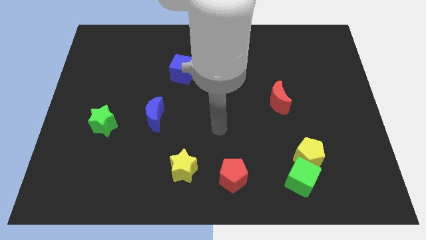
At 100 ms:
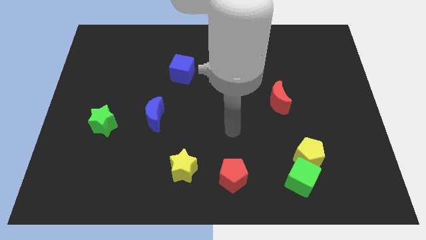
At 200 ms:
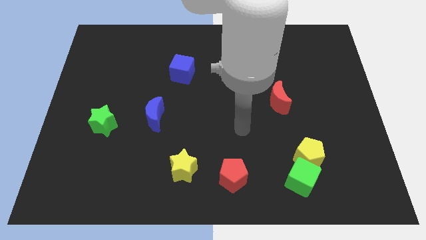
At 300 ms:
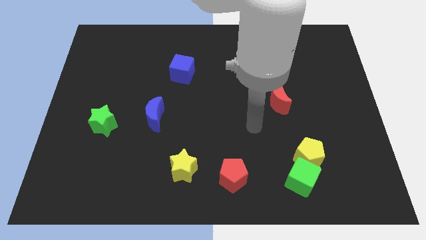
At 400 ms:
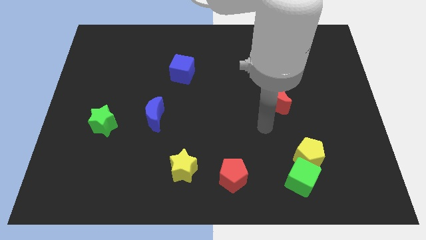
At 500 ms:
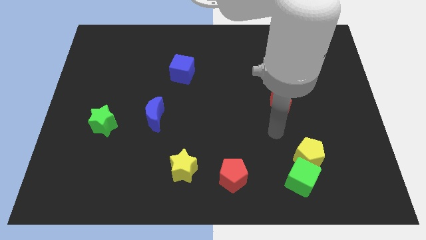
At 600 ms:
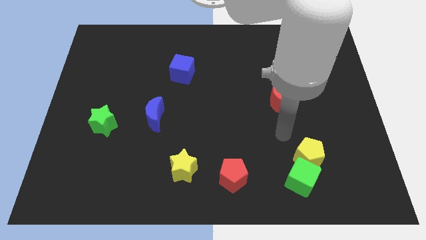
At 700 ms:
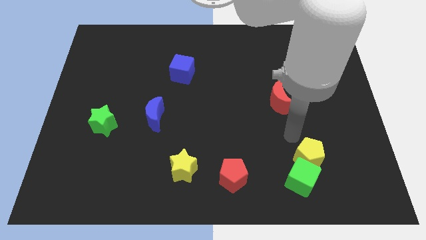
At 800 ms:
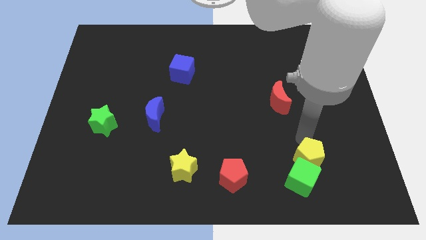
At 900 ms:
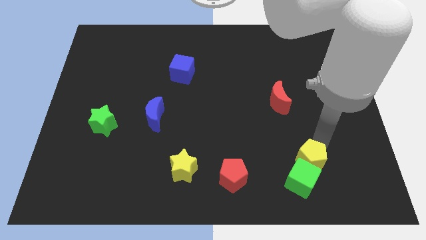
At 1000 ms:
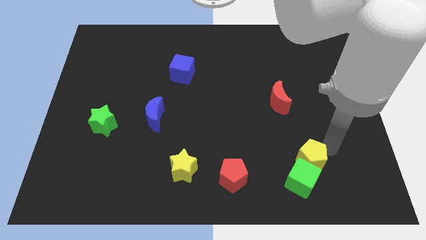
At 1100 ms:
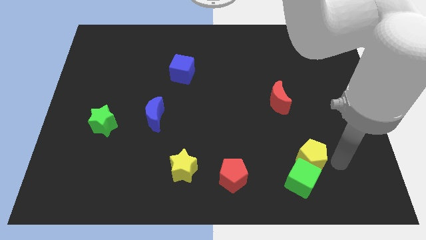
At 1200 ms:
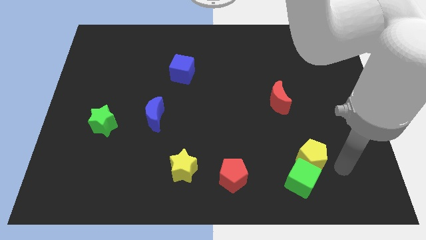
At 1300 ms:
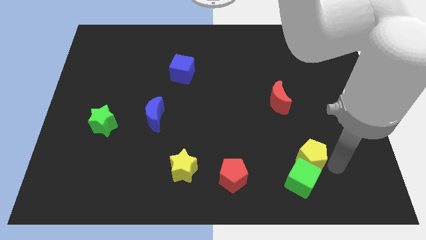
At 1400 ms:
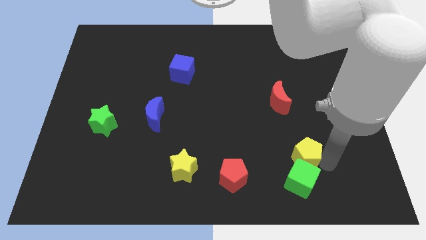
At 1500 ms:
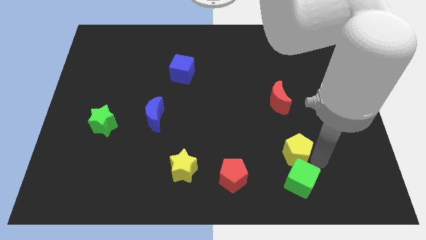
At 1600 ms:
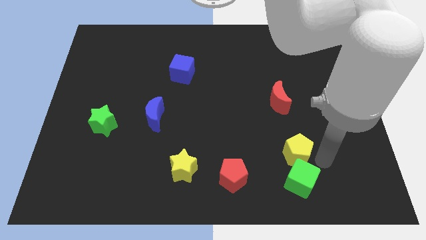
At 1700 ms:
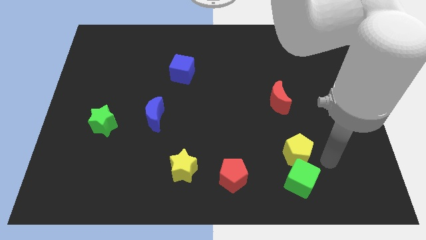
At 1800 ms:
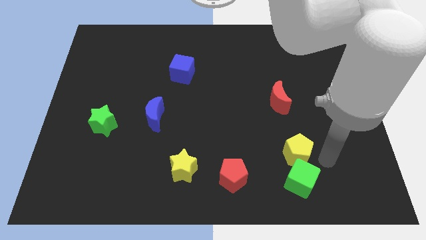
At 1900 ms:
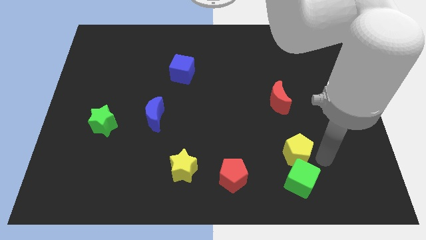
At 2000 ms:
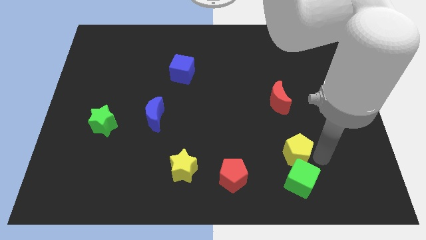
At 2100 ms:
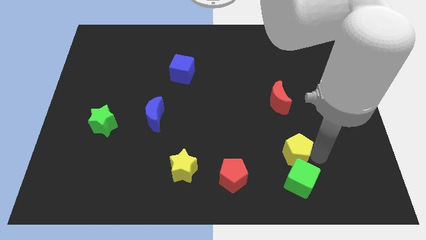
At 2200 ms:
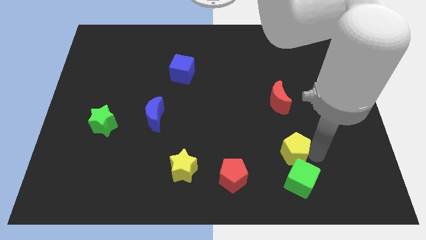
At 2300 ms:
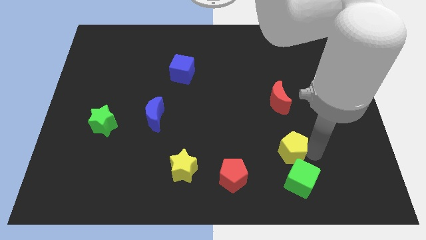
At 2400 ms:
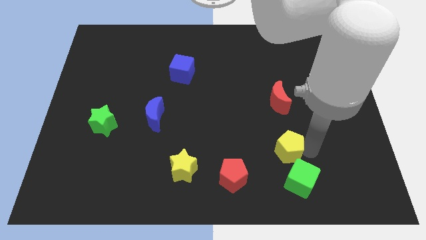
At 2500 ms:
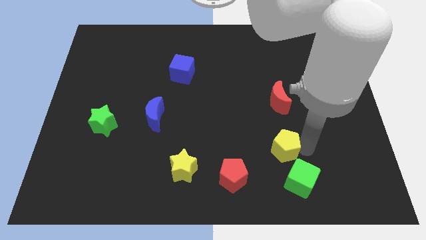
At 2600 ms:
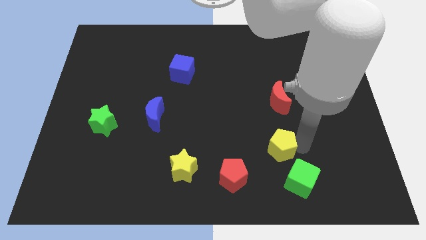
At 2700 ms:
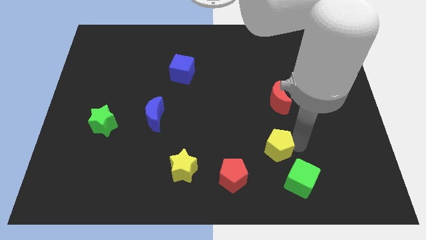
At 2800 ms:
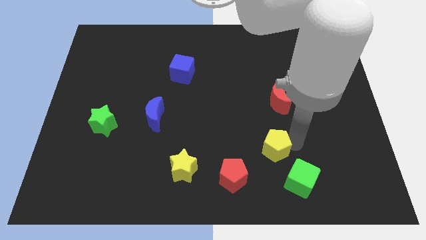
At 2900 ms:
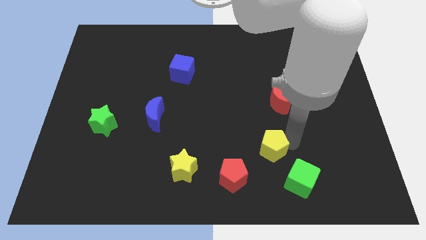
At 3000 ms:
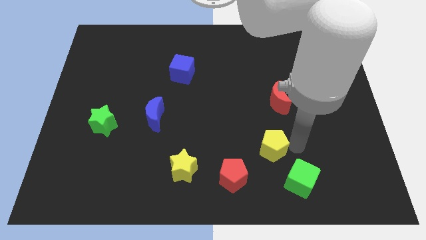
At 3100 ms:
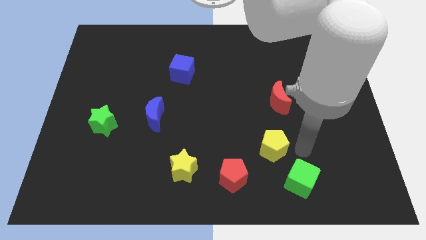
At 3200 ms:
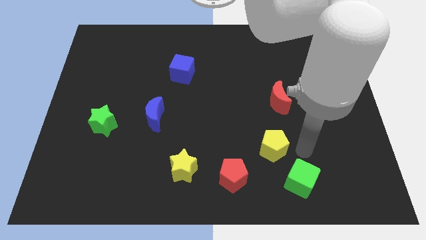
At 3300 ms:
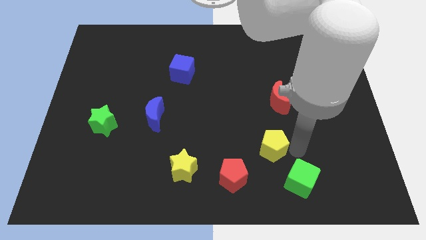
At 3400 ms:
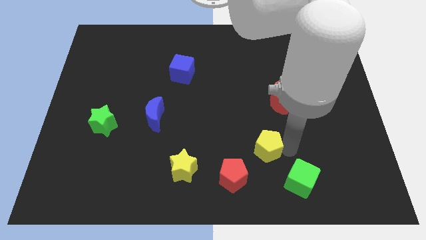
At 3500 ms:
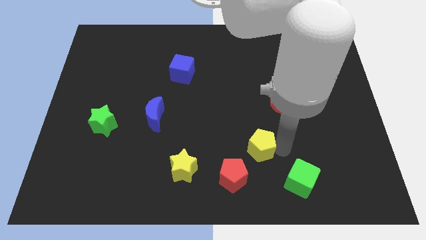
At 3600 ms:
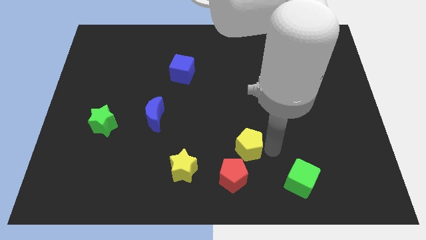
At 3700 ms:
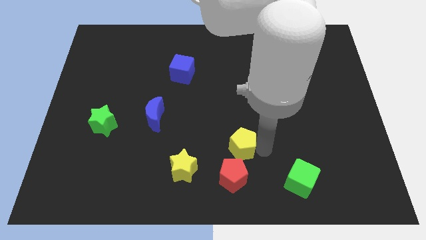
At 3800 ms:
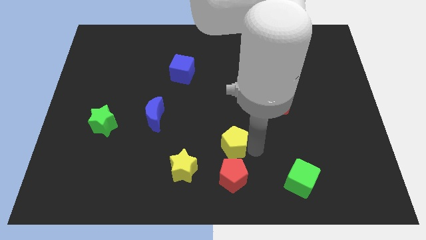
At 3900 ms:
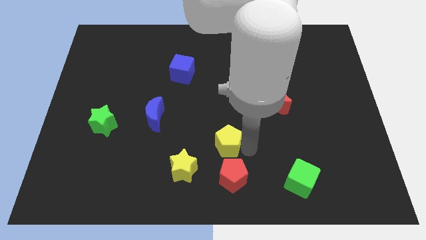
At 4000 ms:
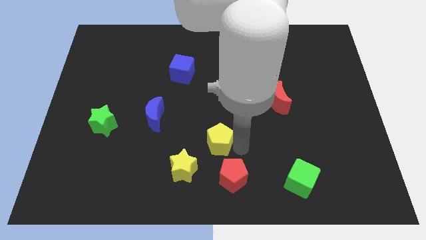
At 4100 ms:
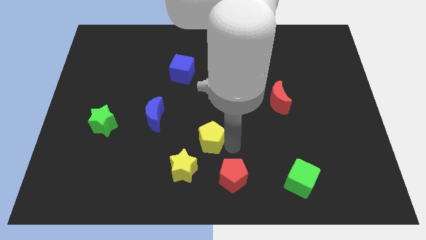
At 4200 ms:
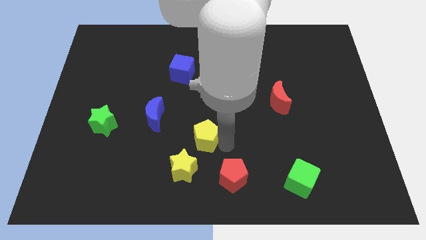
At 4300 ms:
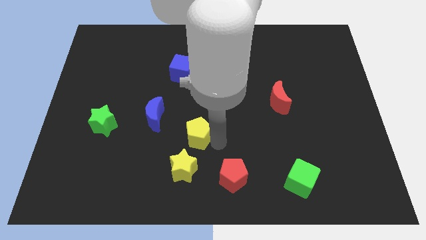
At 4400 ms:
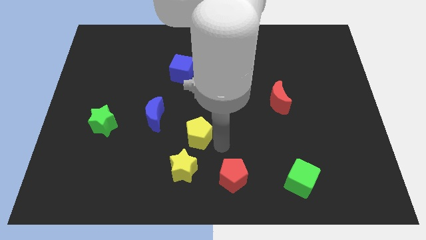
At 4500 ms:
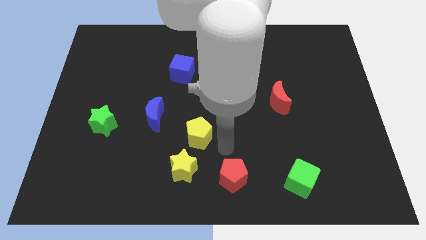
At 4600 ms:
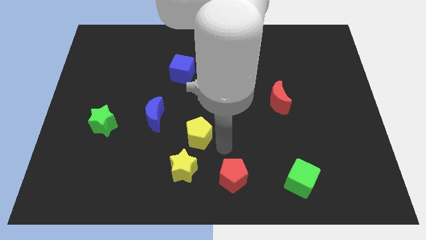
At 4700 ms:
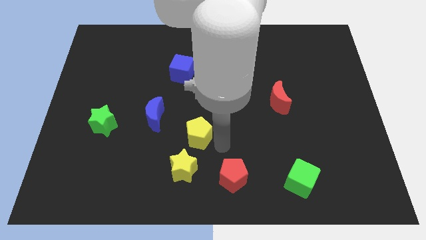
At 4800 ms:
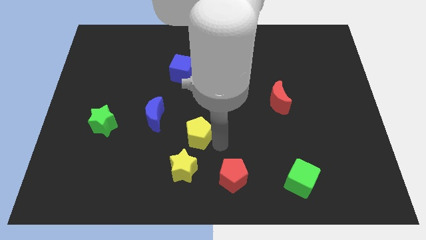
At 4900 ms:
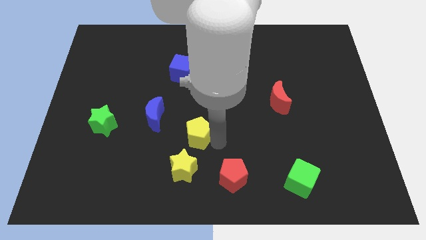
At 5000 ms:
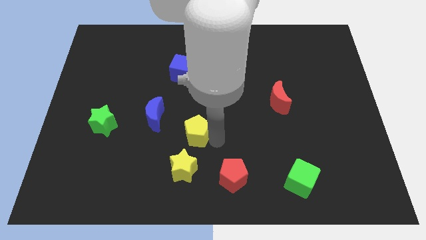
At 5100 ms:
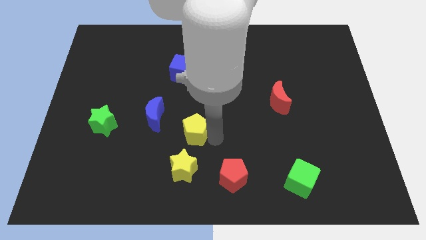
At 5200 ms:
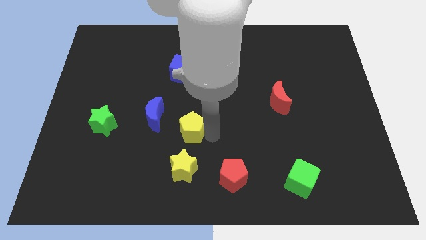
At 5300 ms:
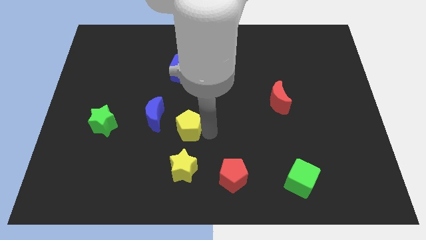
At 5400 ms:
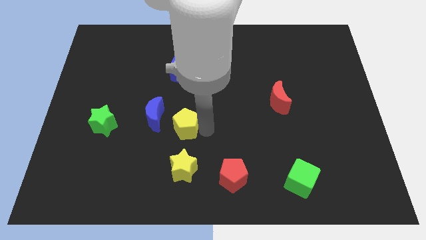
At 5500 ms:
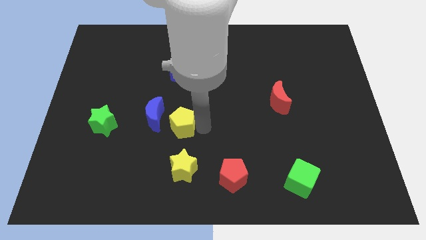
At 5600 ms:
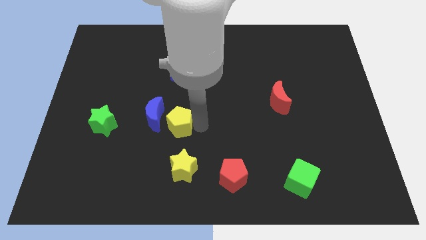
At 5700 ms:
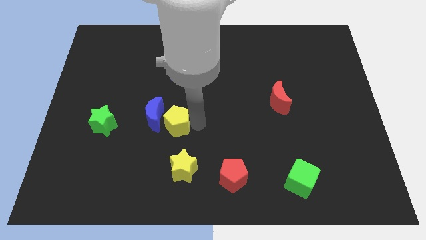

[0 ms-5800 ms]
move the yellow pentagon close to the blue moon

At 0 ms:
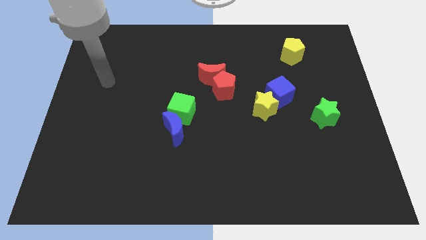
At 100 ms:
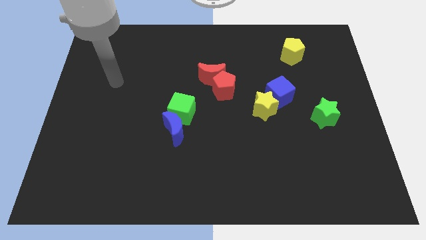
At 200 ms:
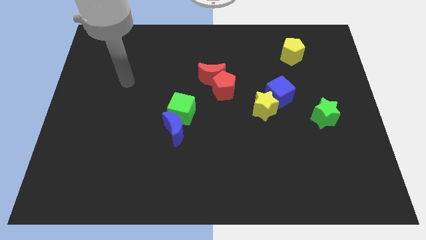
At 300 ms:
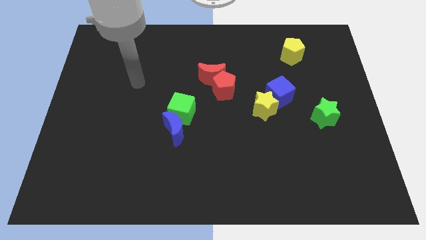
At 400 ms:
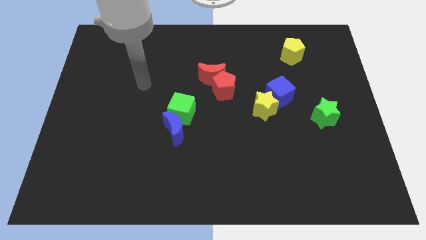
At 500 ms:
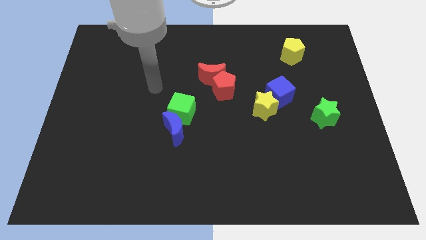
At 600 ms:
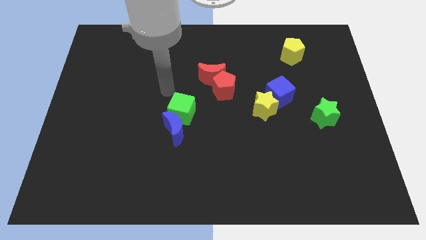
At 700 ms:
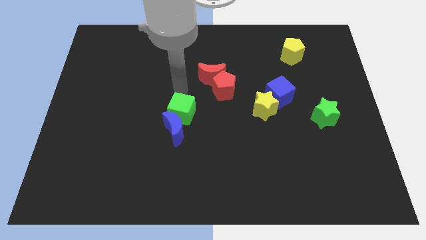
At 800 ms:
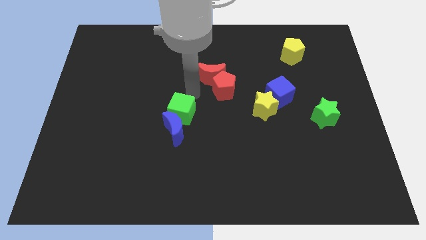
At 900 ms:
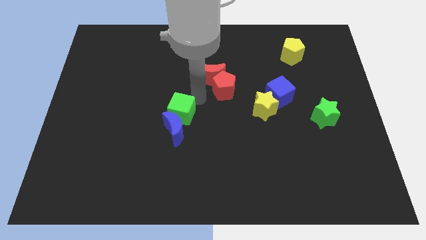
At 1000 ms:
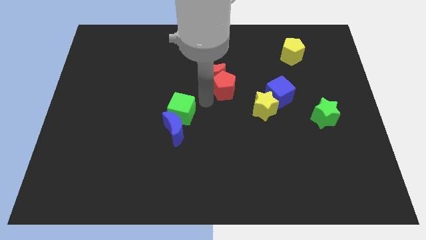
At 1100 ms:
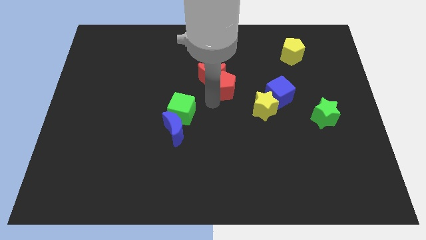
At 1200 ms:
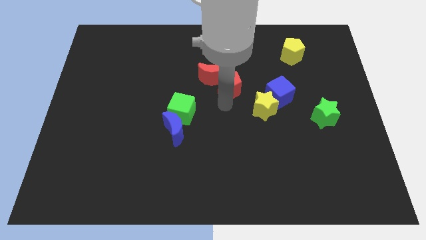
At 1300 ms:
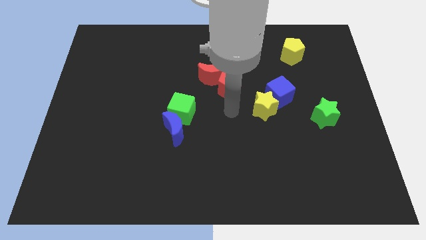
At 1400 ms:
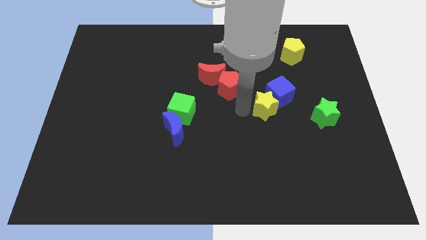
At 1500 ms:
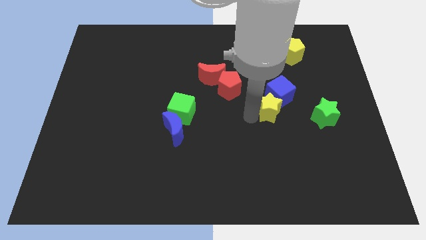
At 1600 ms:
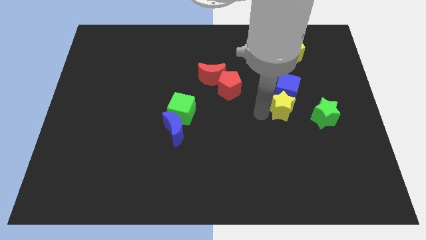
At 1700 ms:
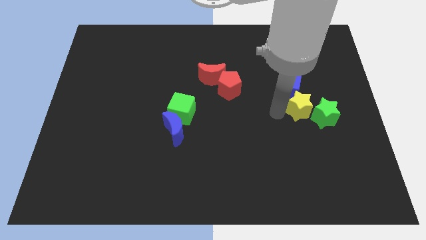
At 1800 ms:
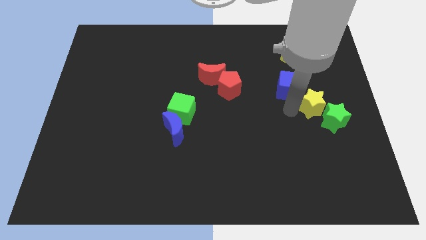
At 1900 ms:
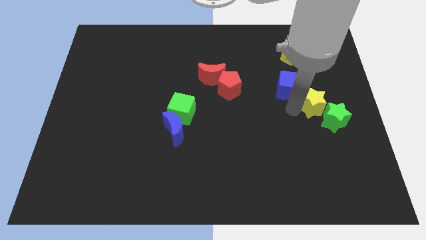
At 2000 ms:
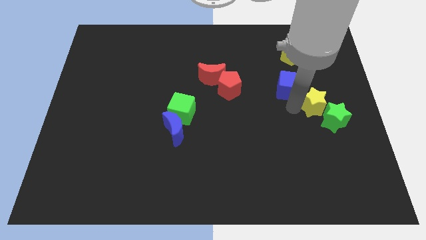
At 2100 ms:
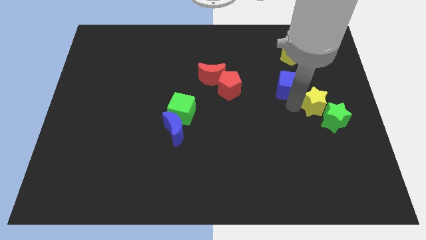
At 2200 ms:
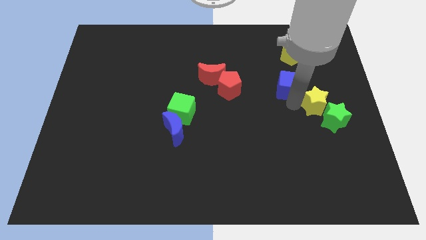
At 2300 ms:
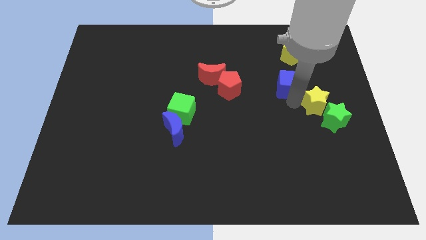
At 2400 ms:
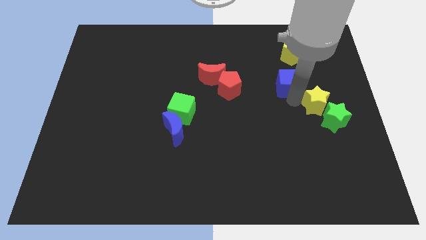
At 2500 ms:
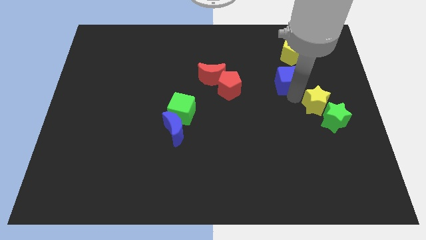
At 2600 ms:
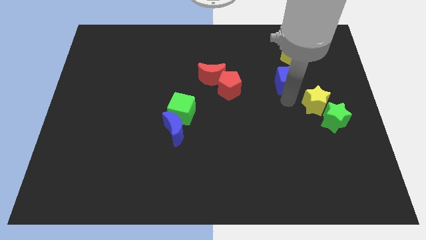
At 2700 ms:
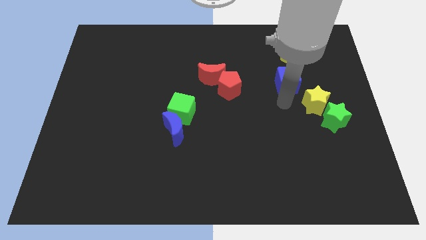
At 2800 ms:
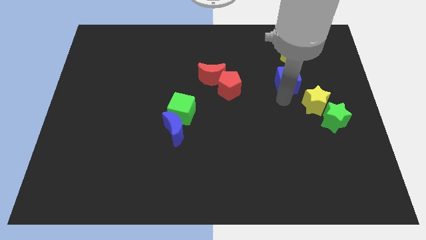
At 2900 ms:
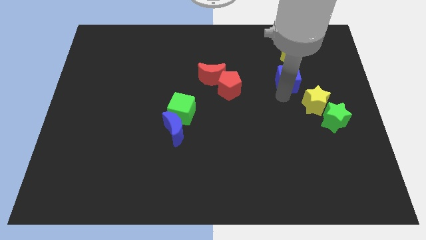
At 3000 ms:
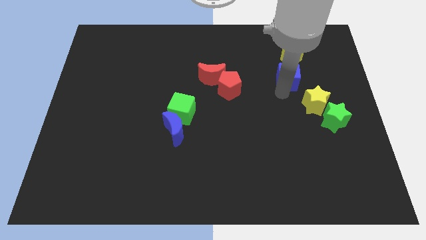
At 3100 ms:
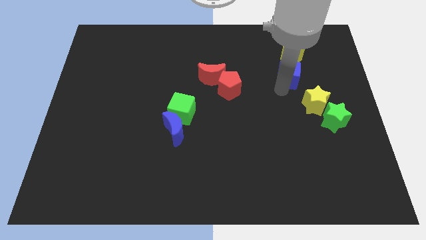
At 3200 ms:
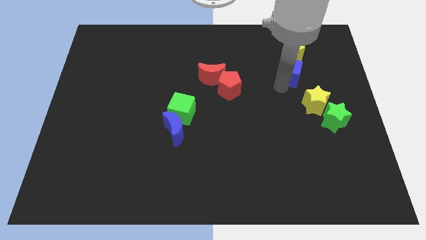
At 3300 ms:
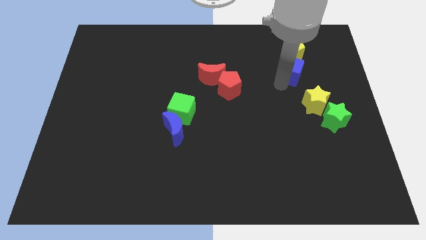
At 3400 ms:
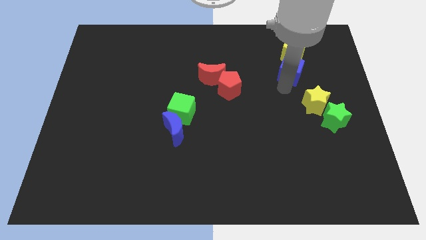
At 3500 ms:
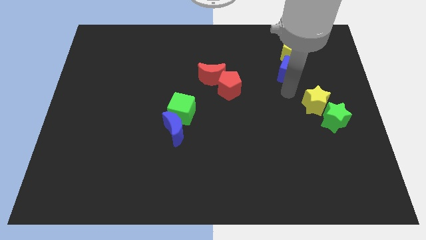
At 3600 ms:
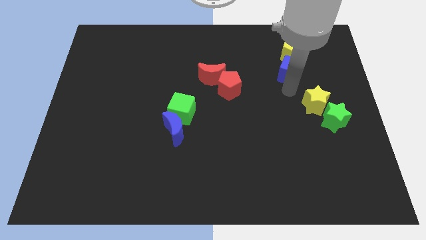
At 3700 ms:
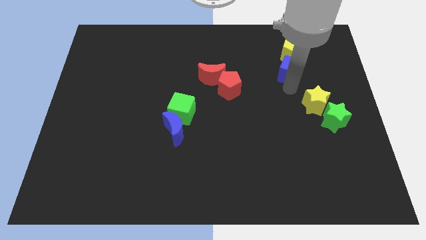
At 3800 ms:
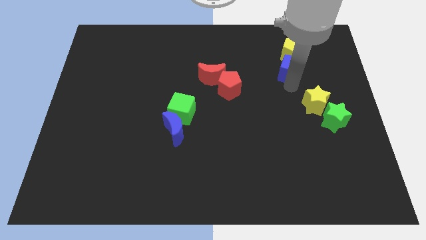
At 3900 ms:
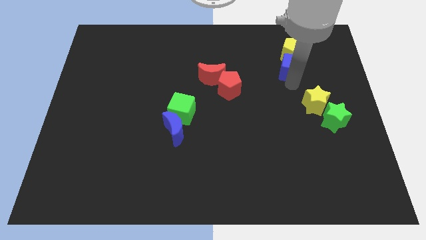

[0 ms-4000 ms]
slide the blue cube towards the yellow pentagon
